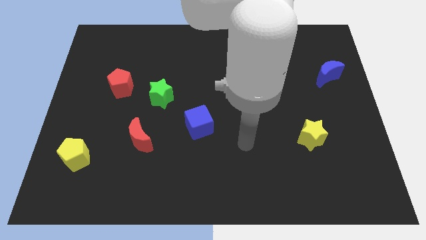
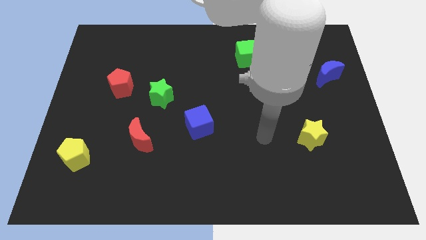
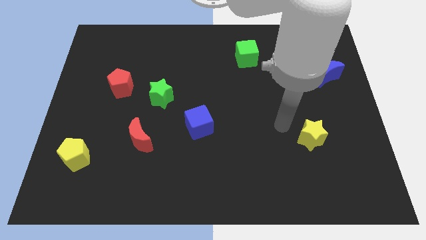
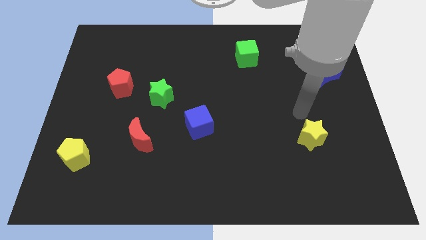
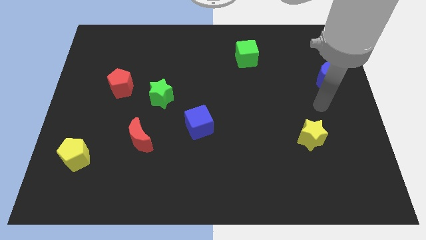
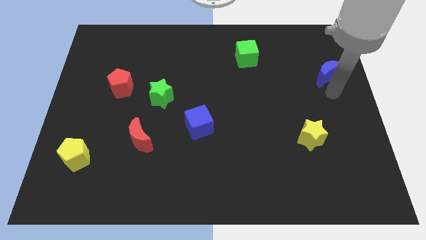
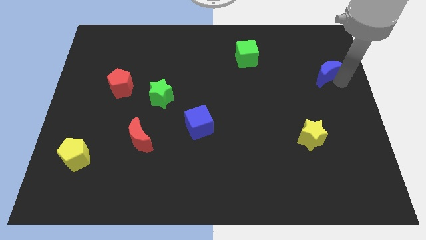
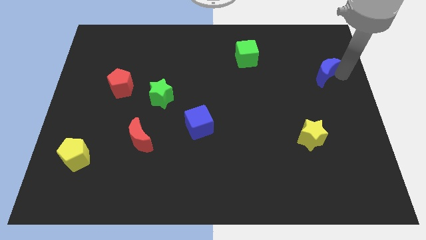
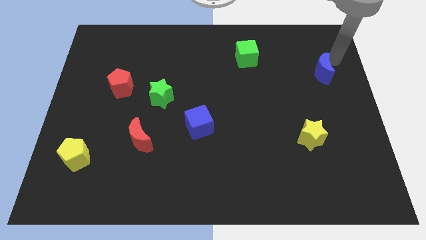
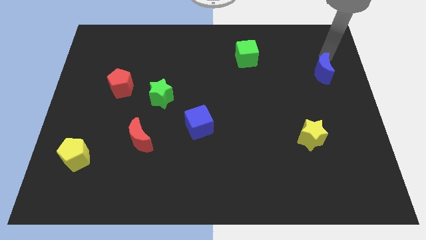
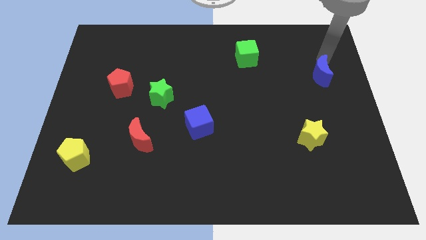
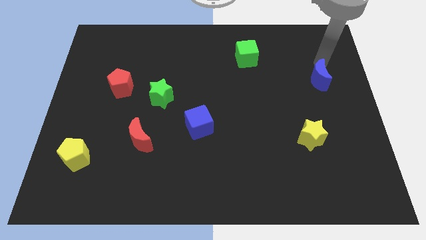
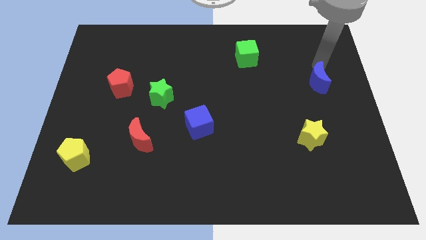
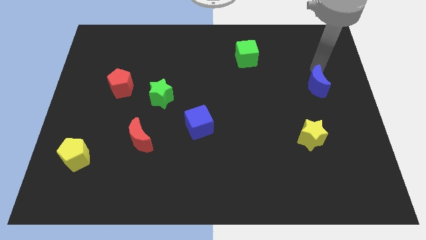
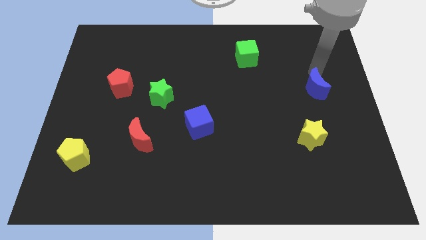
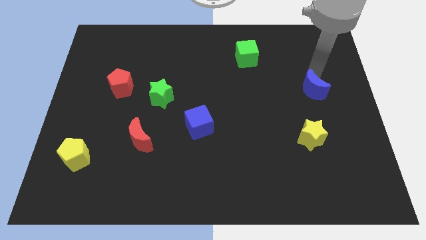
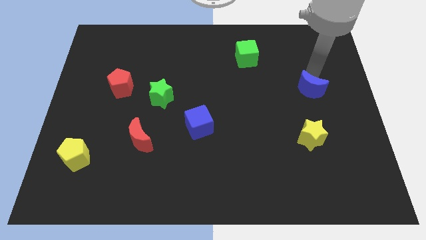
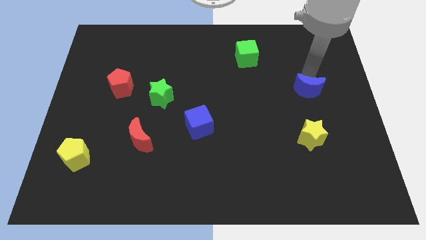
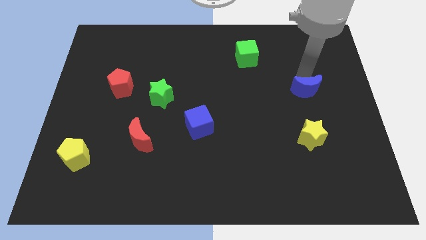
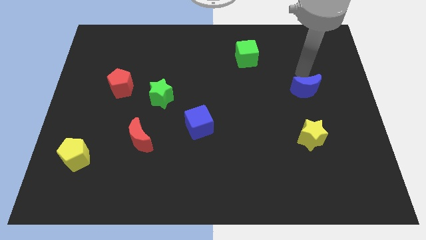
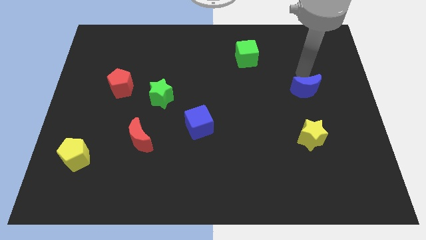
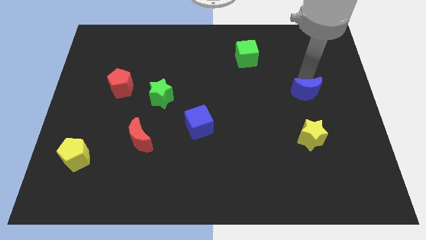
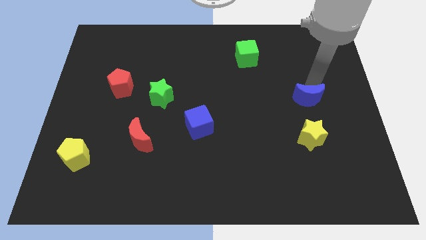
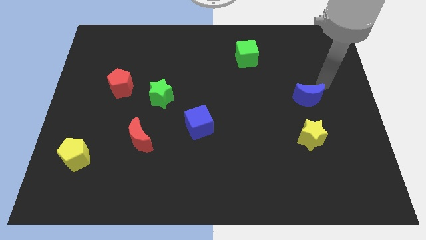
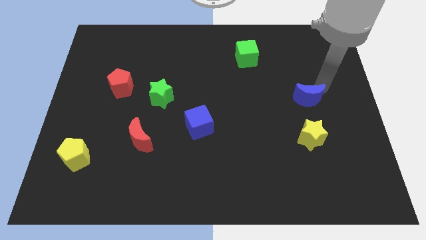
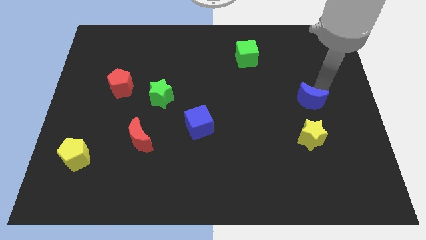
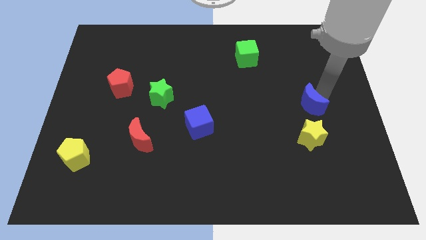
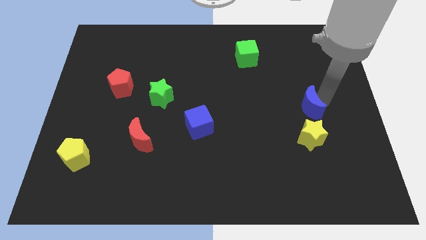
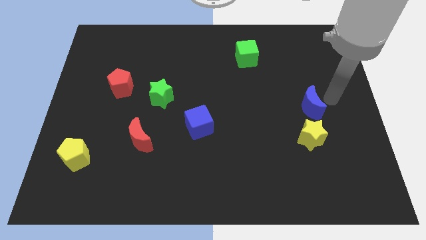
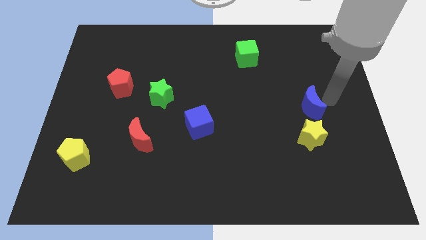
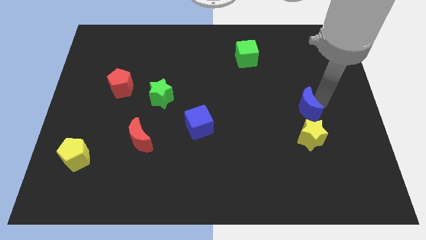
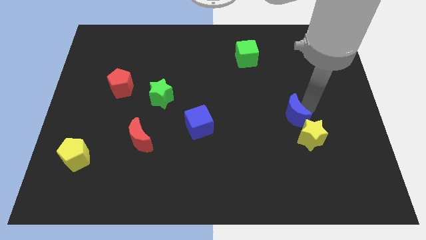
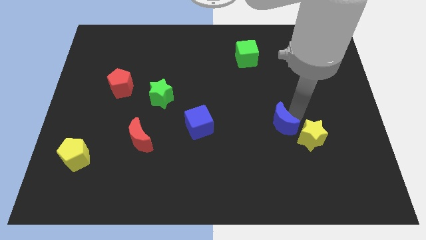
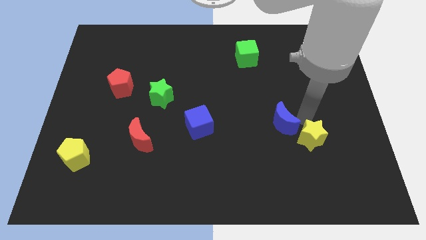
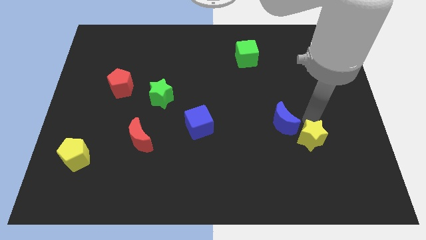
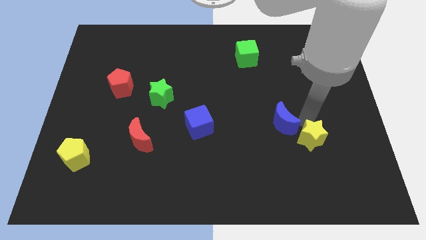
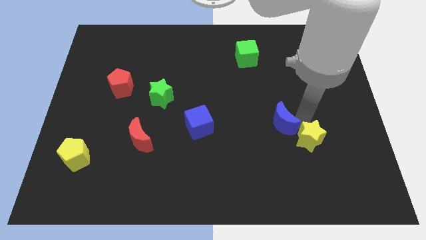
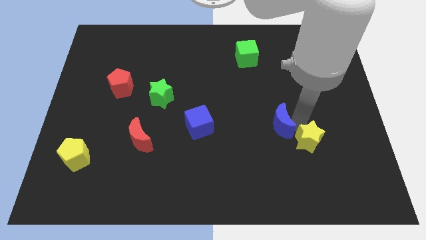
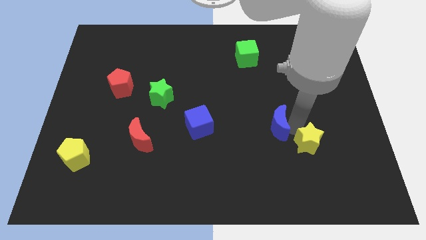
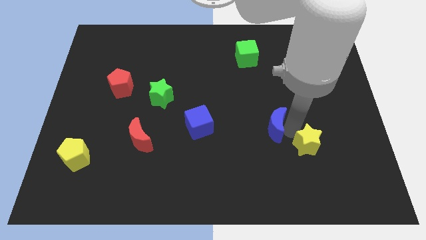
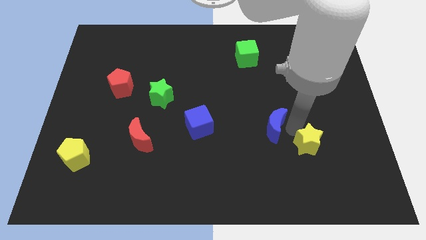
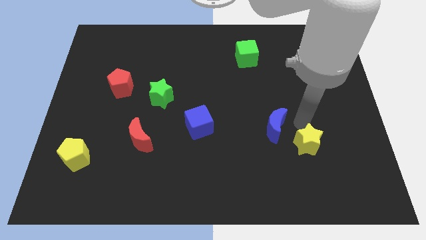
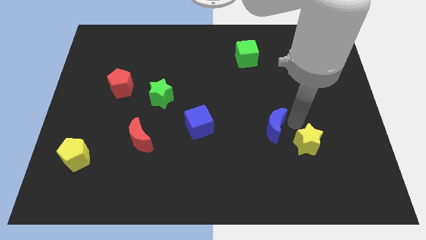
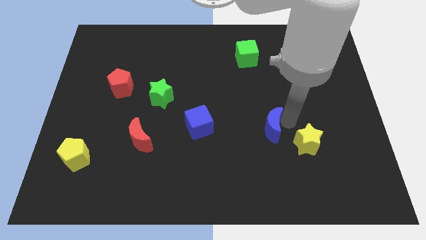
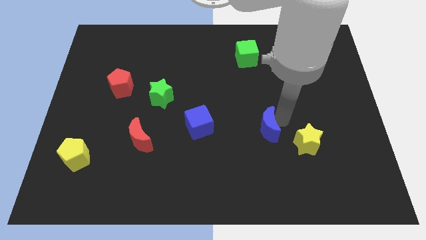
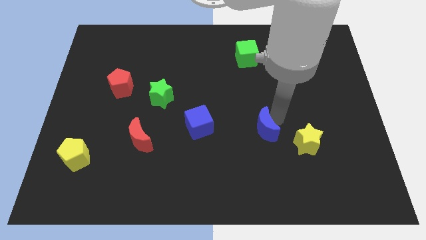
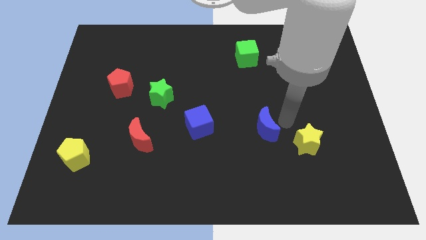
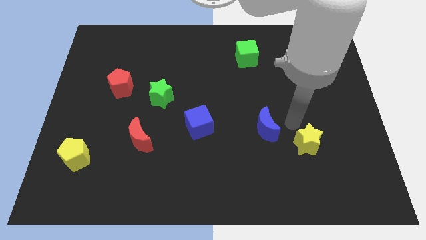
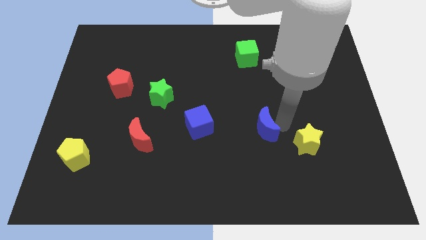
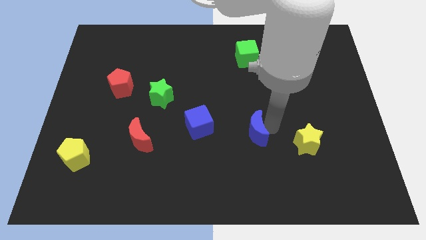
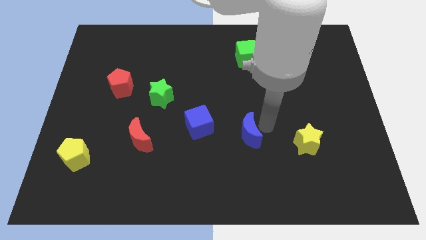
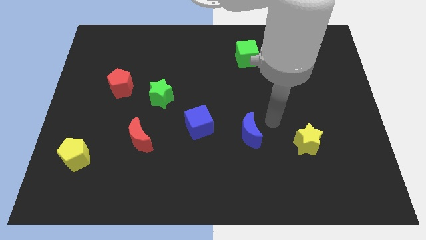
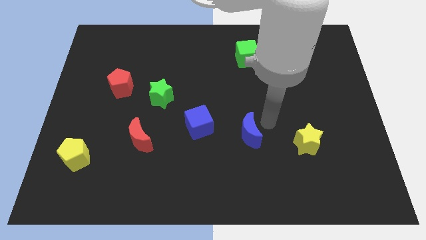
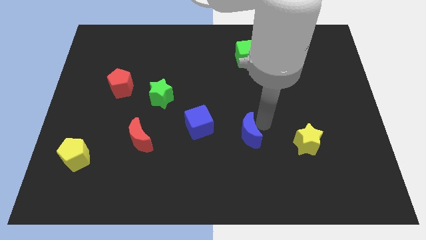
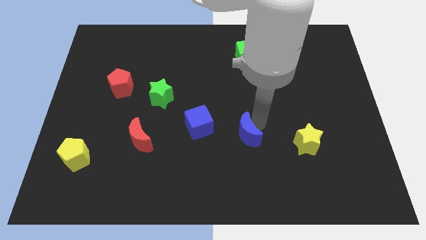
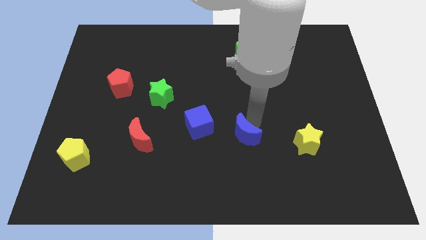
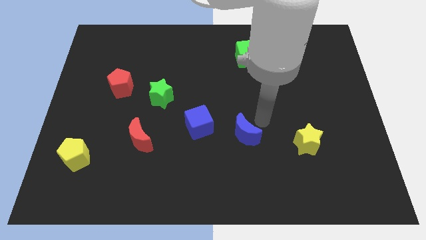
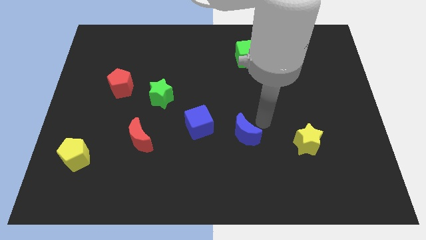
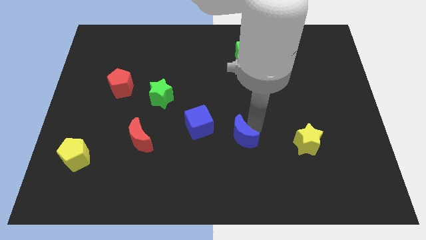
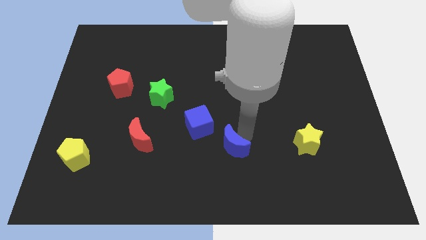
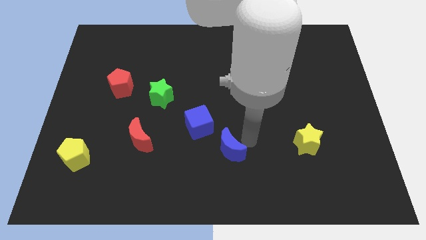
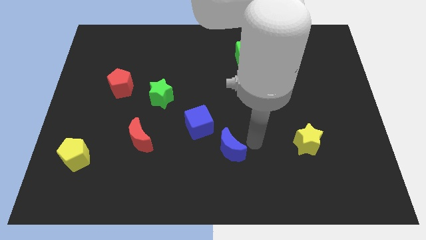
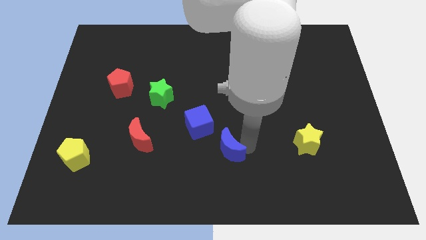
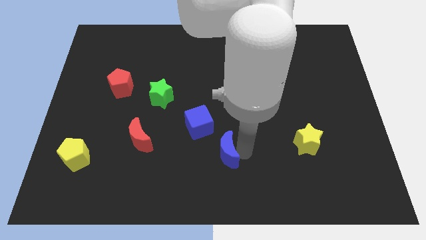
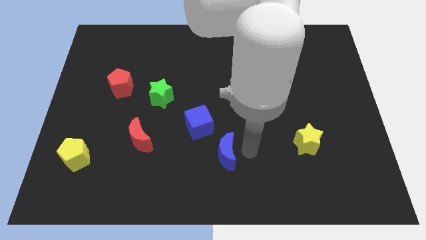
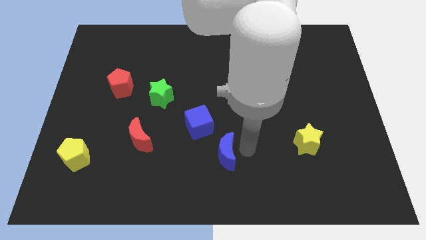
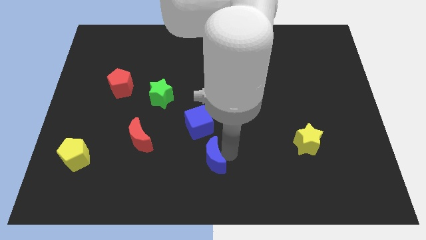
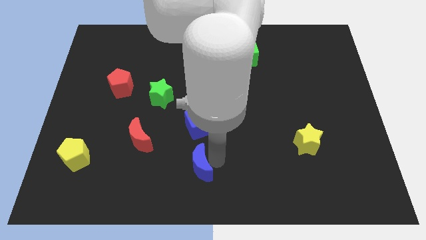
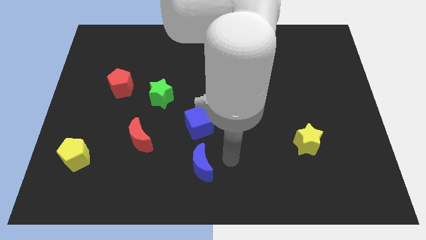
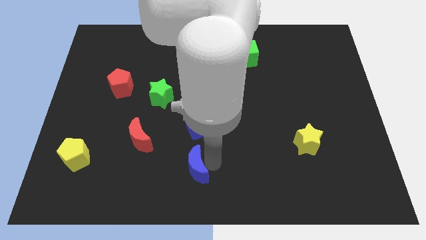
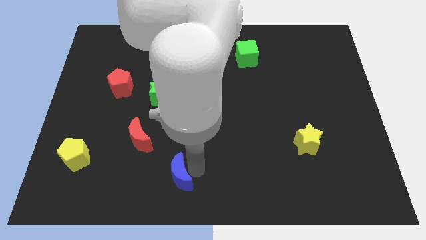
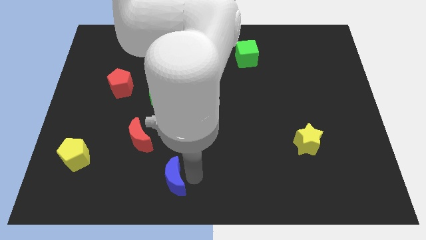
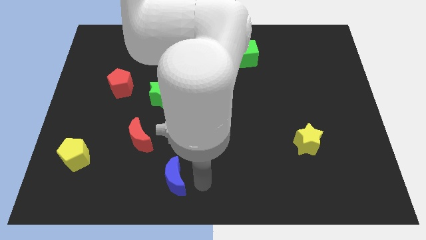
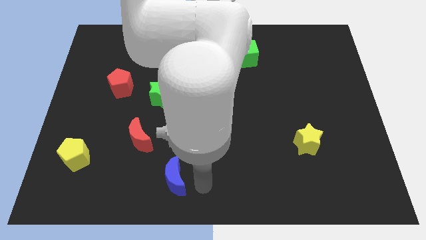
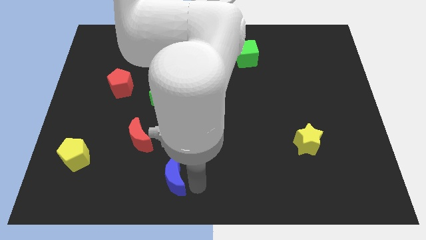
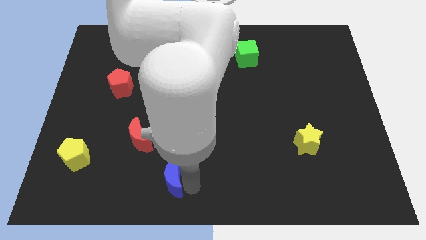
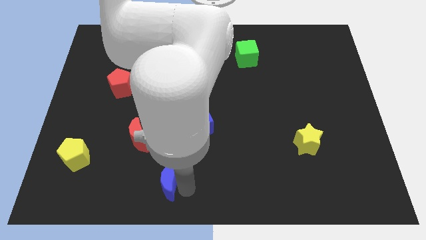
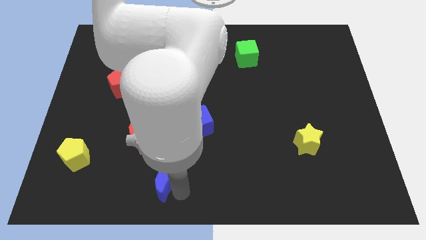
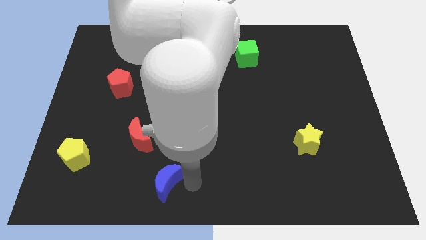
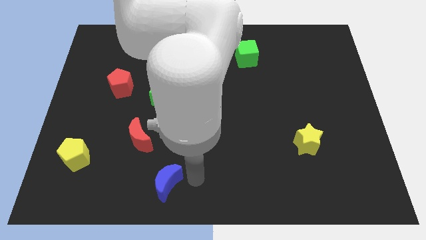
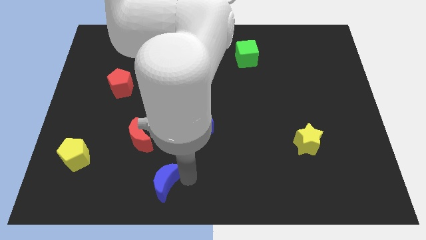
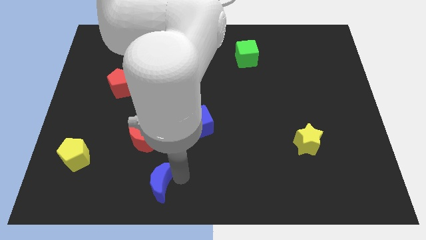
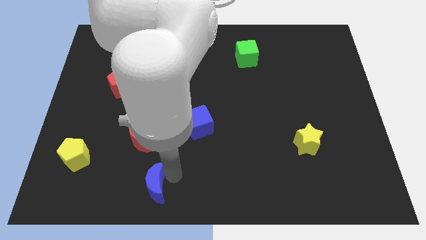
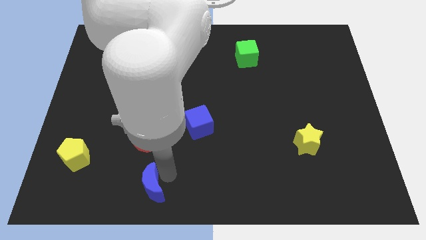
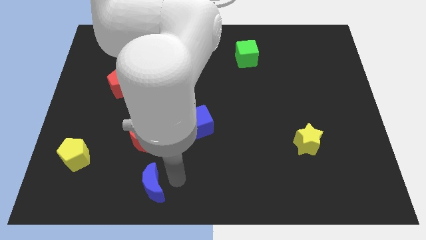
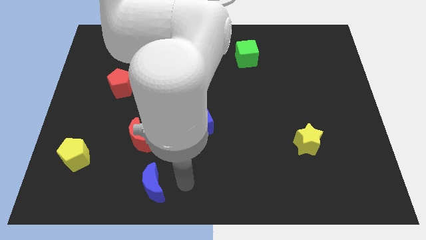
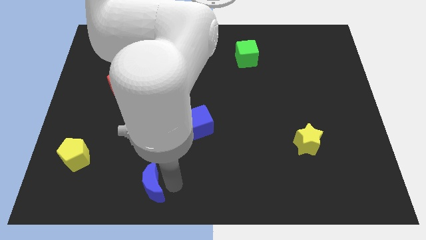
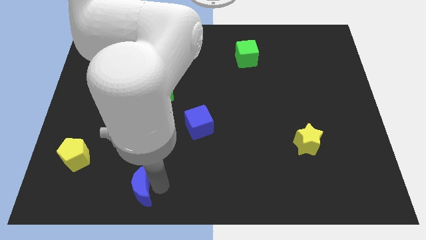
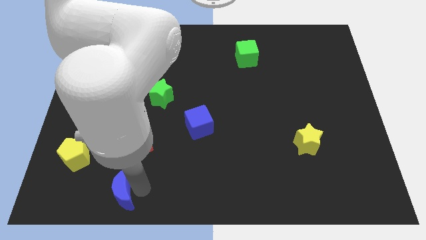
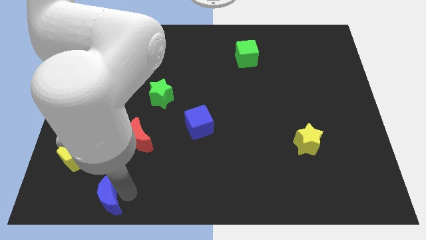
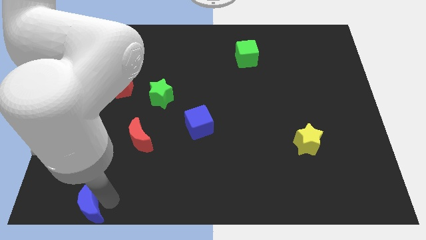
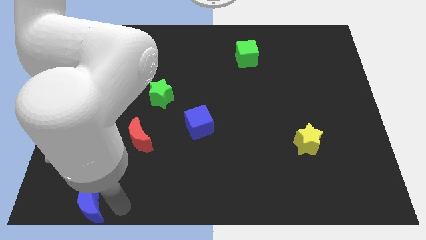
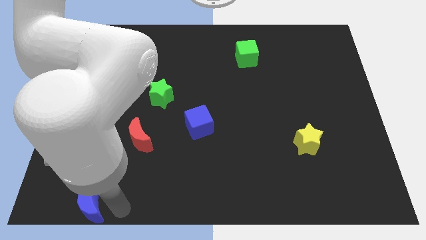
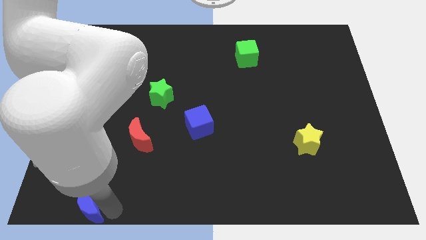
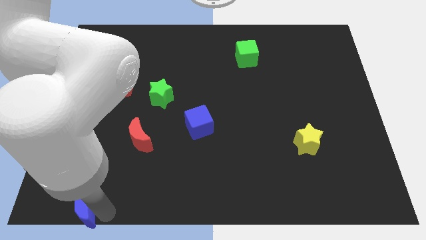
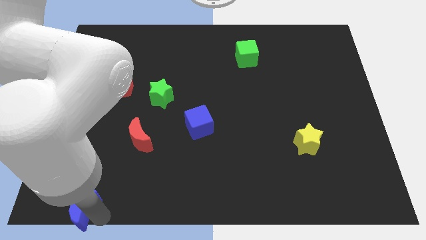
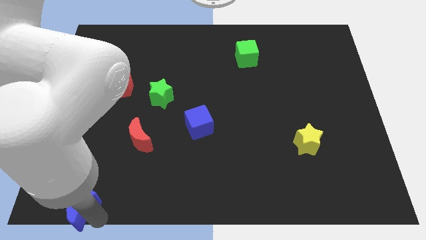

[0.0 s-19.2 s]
put the blue moon to the bottom left of the board
